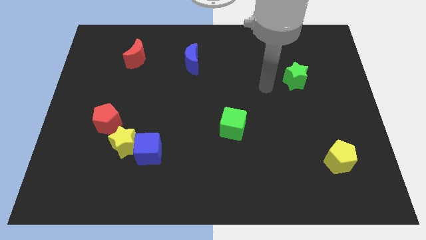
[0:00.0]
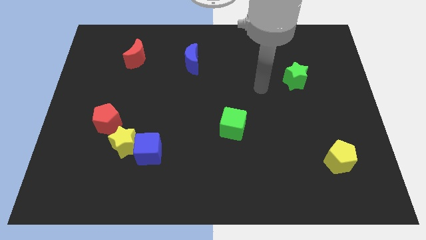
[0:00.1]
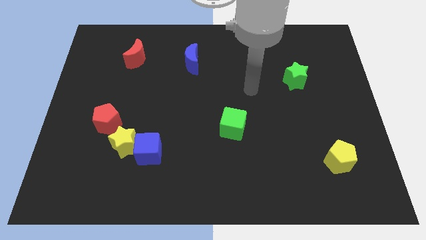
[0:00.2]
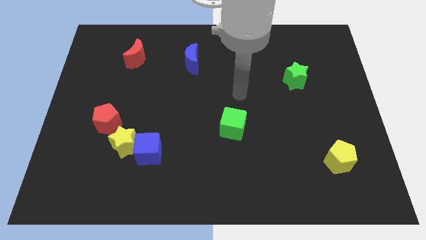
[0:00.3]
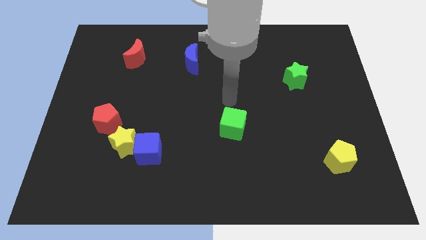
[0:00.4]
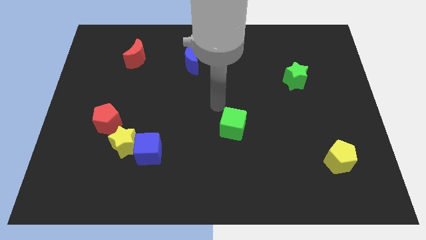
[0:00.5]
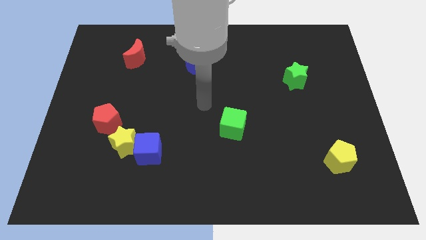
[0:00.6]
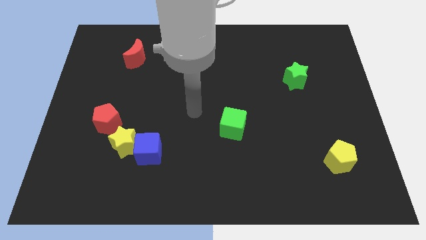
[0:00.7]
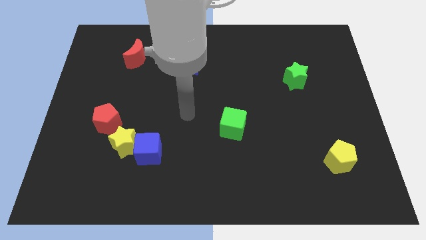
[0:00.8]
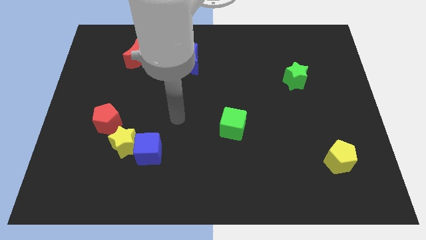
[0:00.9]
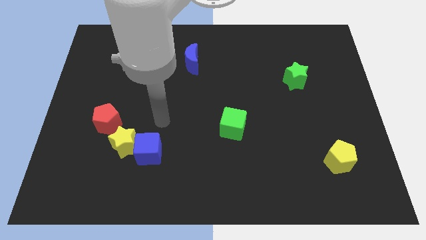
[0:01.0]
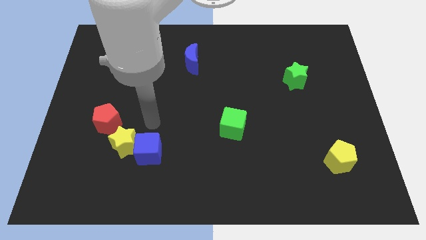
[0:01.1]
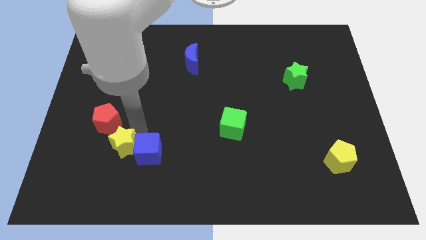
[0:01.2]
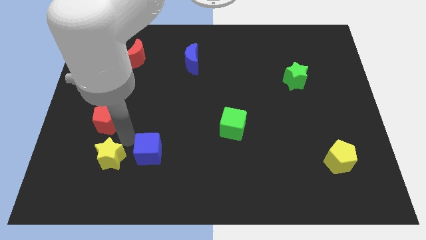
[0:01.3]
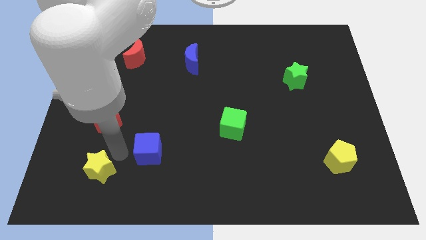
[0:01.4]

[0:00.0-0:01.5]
separate the blue cube from the yellow star

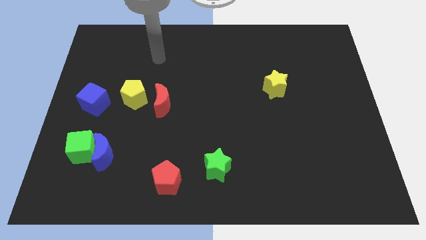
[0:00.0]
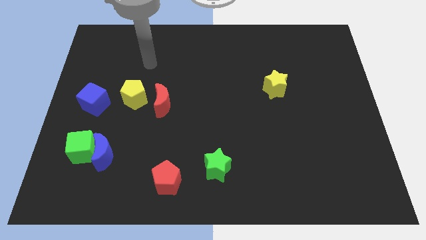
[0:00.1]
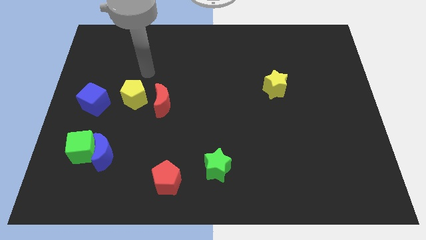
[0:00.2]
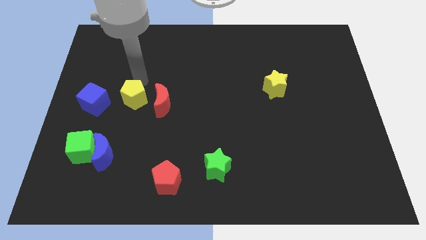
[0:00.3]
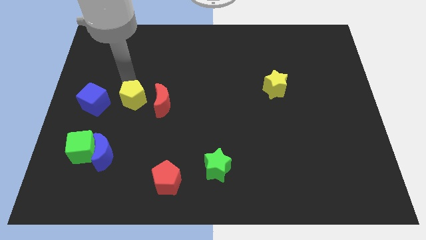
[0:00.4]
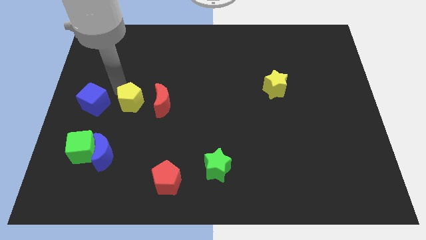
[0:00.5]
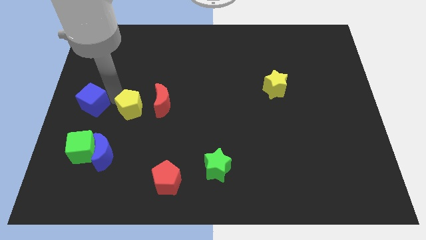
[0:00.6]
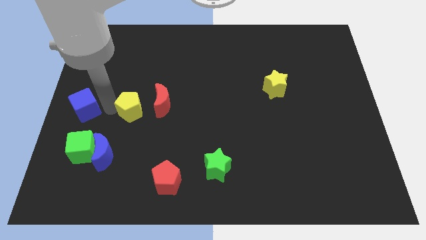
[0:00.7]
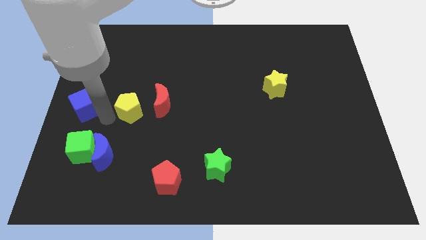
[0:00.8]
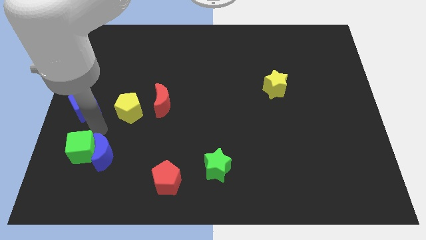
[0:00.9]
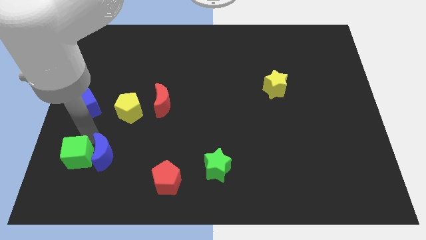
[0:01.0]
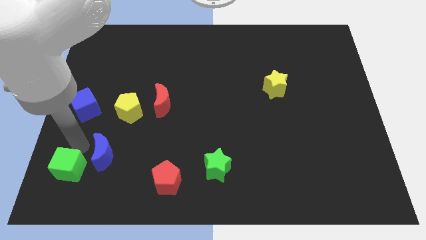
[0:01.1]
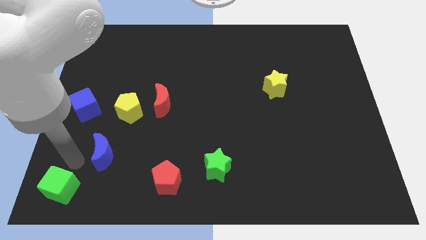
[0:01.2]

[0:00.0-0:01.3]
move the blue moon away from the green cube

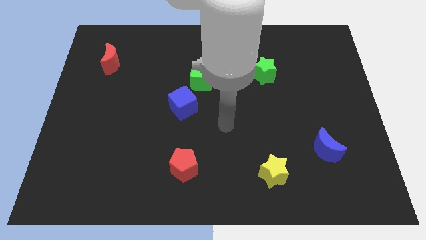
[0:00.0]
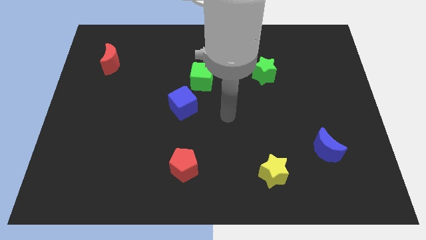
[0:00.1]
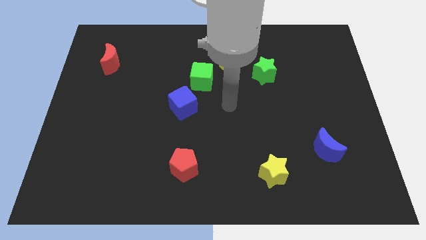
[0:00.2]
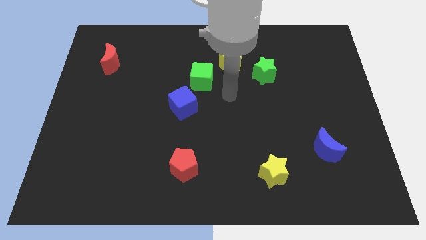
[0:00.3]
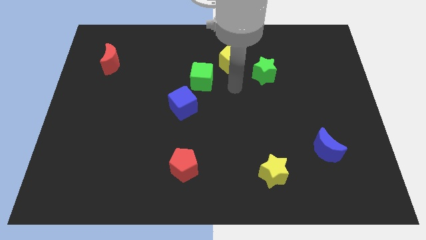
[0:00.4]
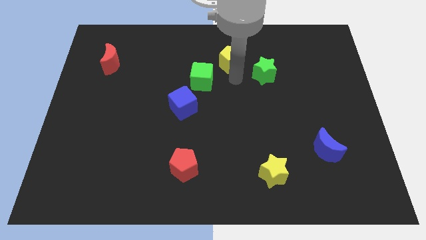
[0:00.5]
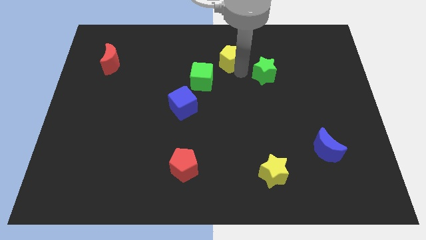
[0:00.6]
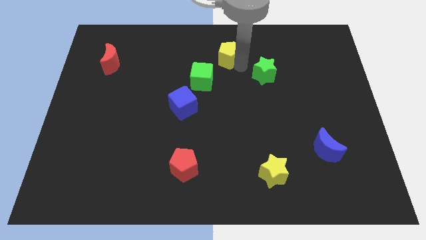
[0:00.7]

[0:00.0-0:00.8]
pull the green star apart from the yellow pentagon

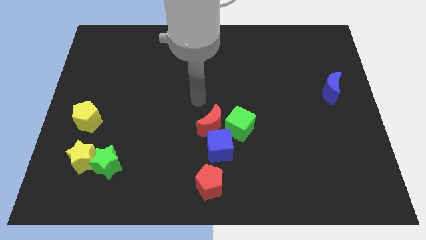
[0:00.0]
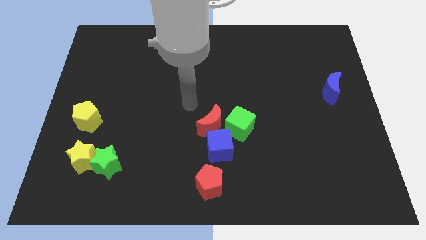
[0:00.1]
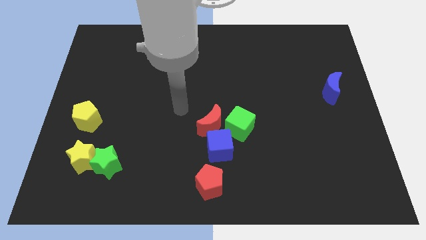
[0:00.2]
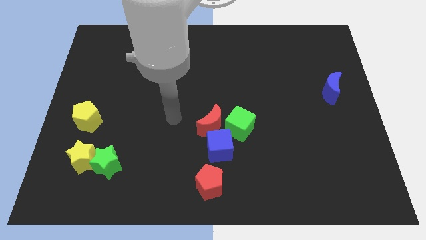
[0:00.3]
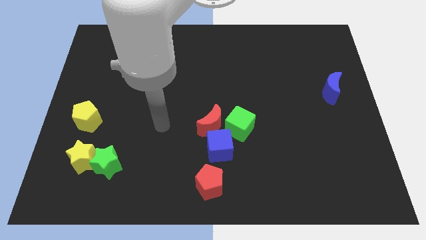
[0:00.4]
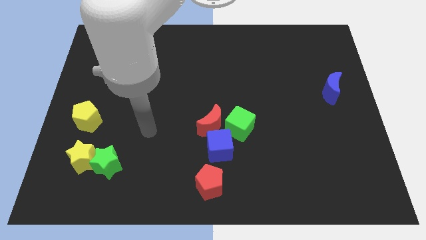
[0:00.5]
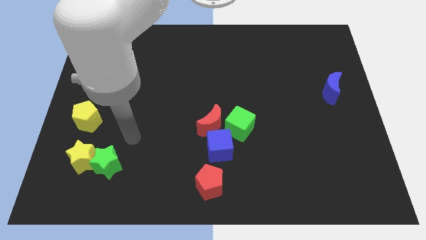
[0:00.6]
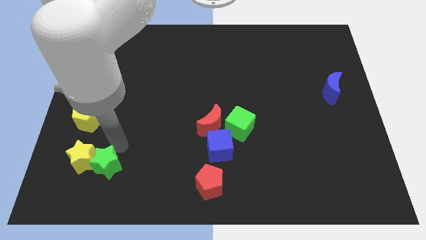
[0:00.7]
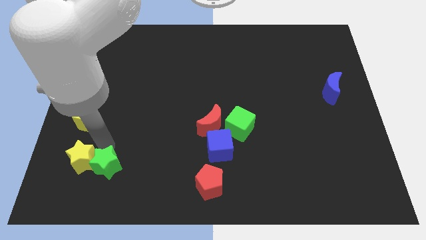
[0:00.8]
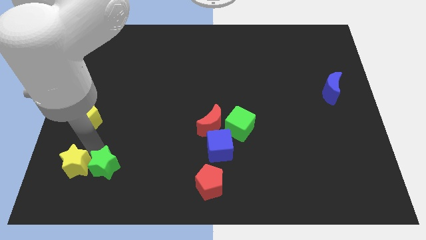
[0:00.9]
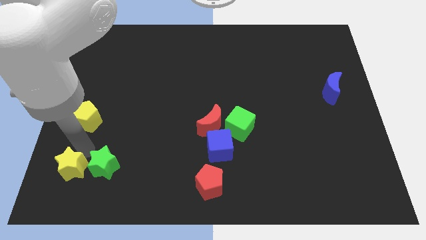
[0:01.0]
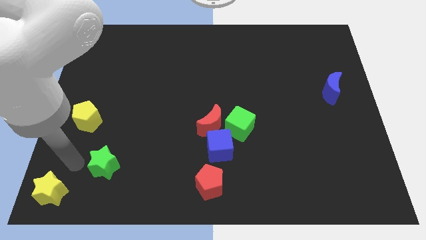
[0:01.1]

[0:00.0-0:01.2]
separate the green star from the yellow star

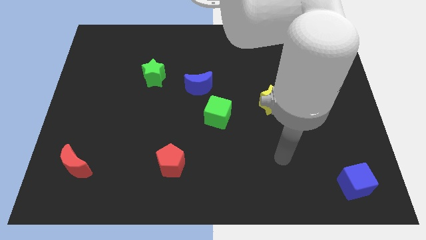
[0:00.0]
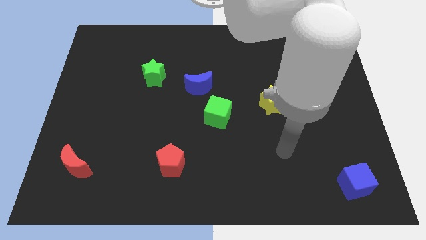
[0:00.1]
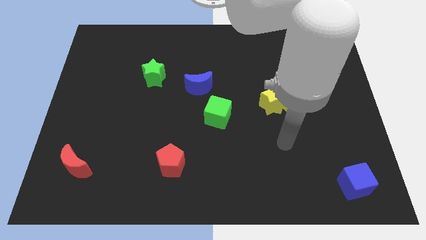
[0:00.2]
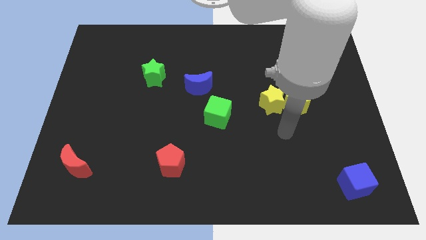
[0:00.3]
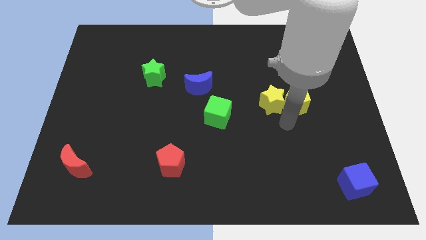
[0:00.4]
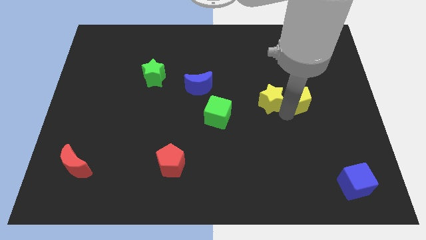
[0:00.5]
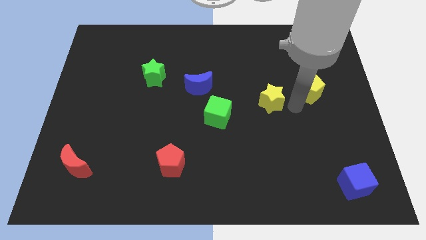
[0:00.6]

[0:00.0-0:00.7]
separate the yellow star from the yellow pentagon

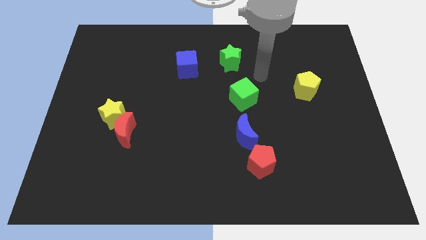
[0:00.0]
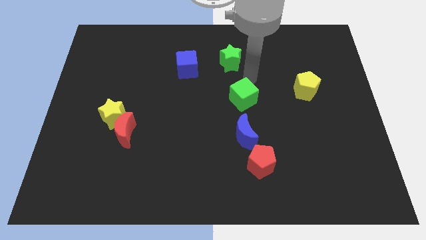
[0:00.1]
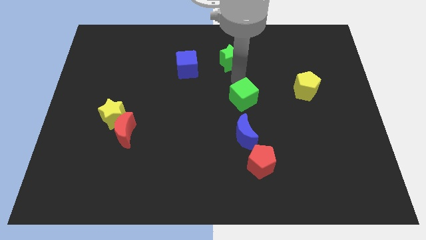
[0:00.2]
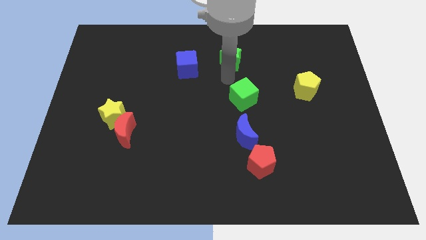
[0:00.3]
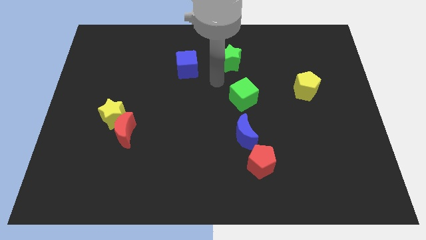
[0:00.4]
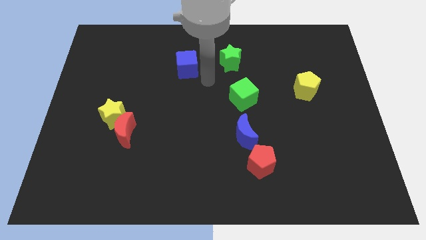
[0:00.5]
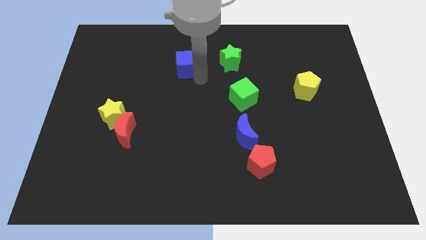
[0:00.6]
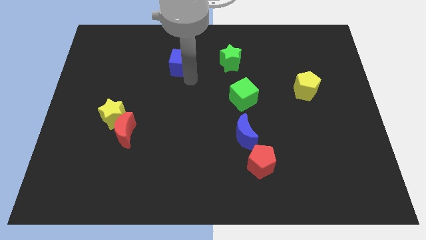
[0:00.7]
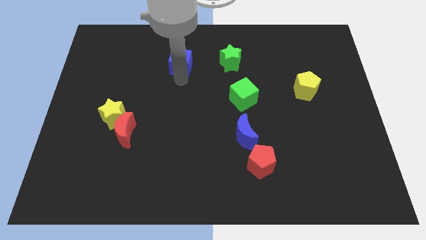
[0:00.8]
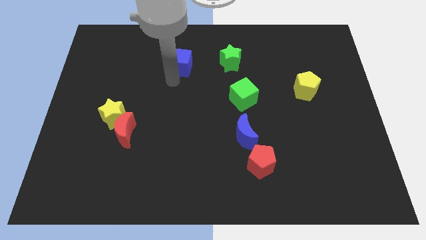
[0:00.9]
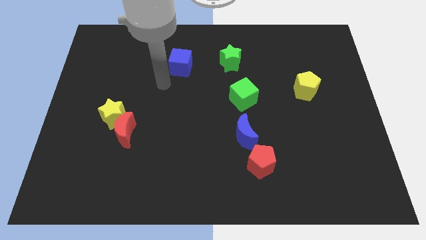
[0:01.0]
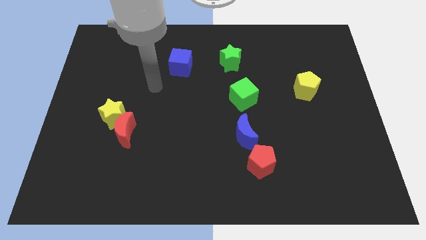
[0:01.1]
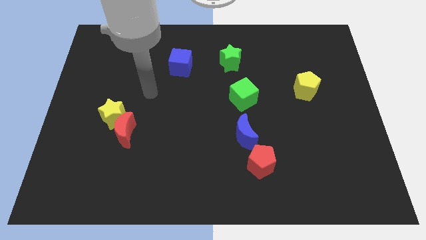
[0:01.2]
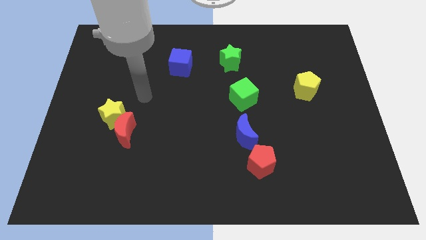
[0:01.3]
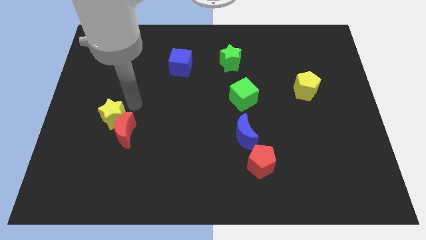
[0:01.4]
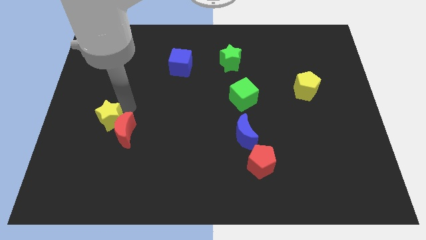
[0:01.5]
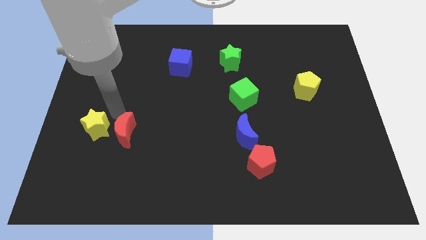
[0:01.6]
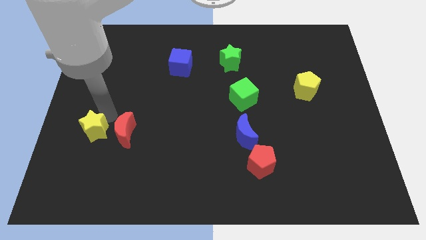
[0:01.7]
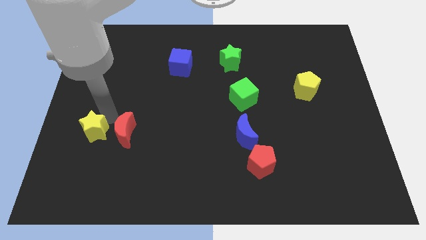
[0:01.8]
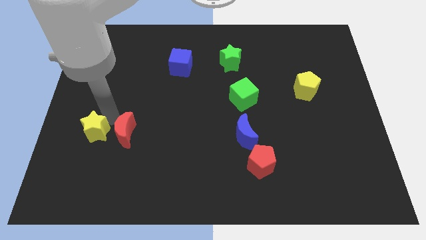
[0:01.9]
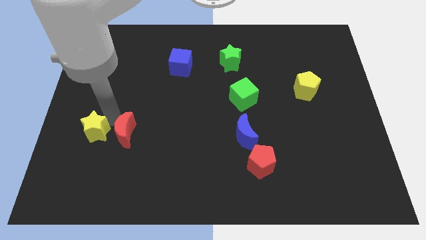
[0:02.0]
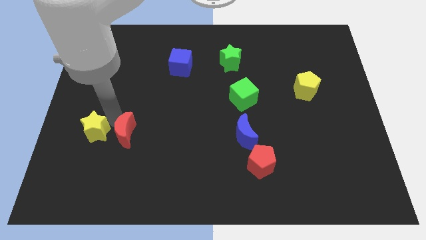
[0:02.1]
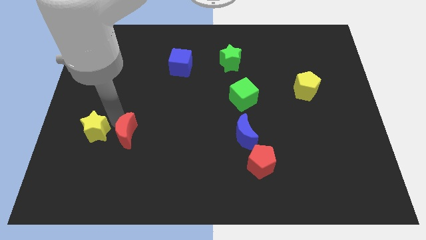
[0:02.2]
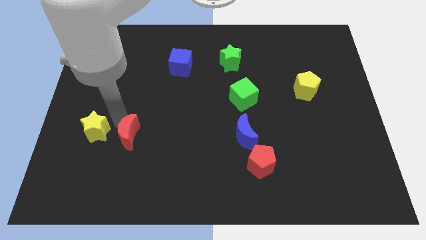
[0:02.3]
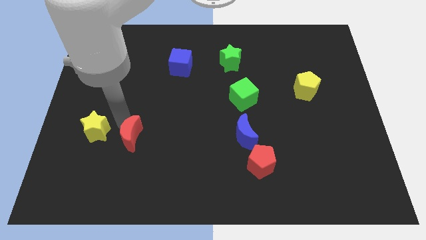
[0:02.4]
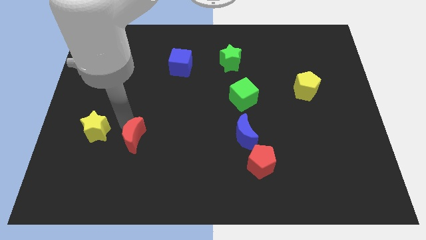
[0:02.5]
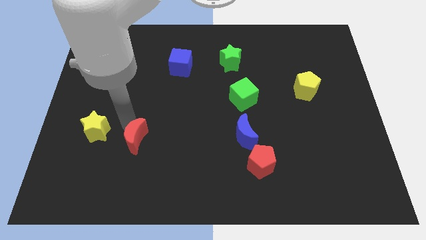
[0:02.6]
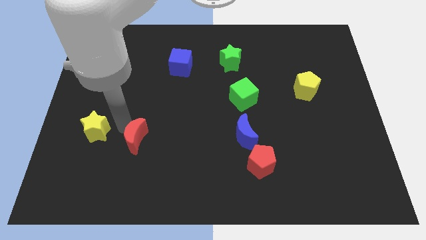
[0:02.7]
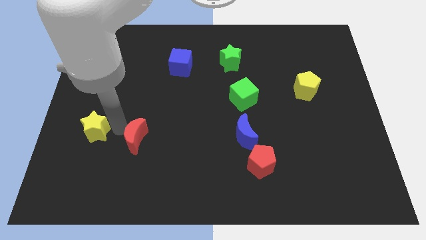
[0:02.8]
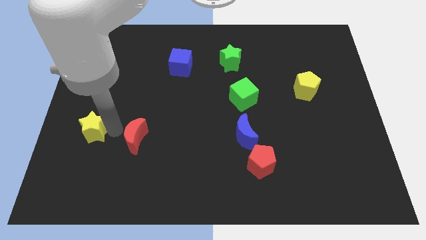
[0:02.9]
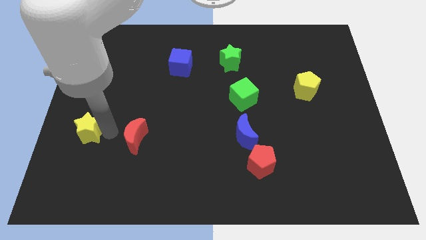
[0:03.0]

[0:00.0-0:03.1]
separate the red moon from the yellow star

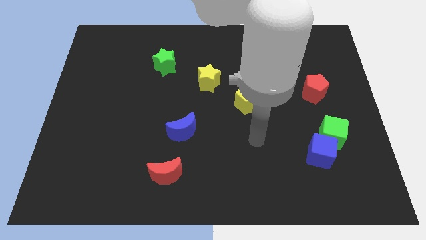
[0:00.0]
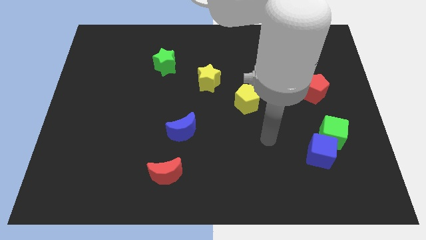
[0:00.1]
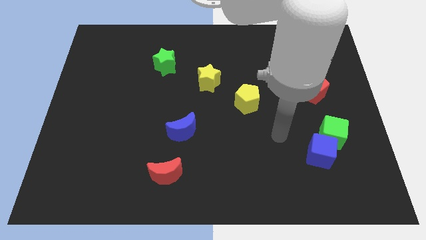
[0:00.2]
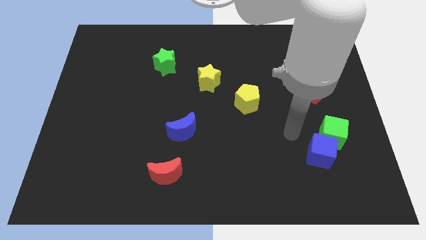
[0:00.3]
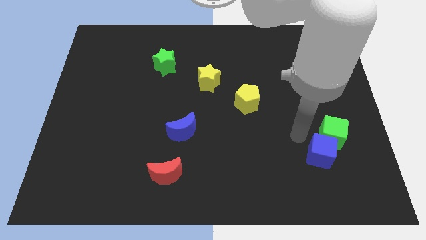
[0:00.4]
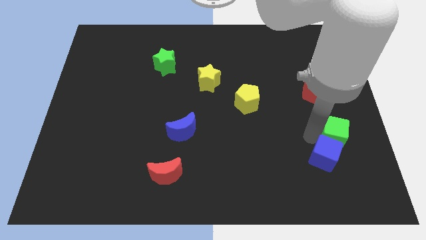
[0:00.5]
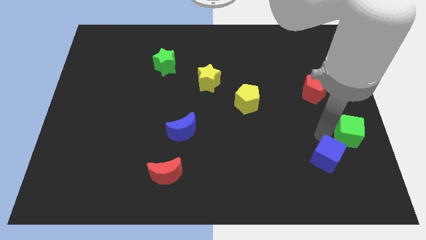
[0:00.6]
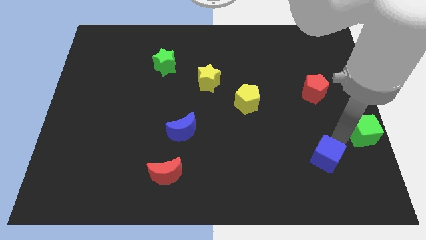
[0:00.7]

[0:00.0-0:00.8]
move the blue cube away from the green cube

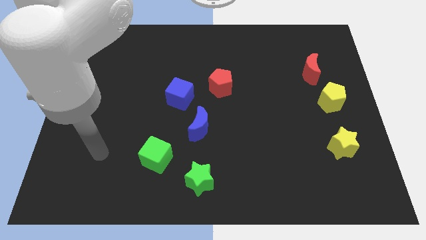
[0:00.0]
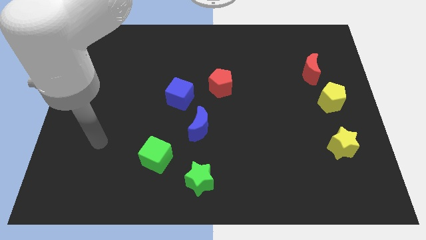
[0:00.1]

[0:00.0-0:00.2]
pull the red moon apart from the yellow pentagon
